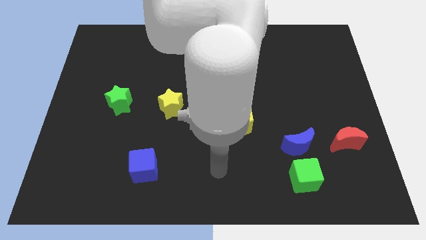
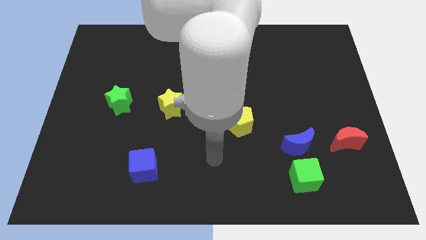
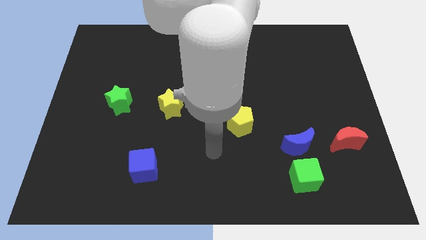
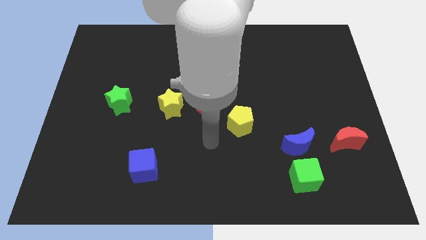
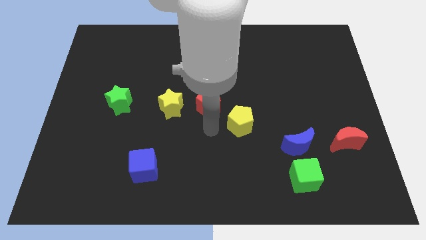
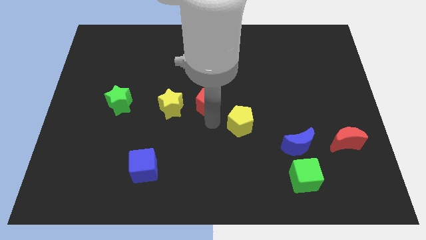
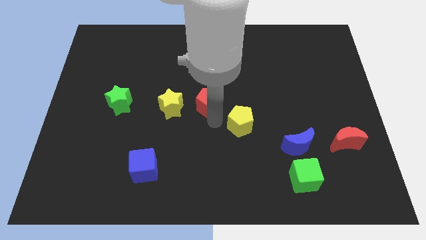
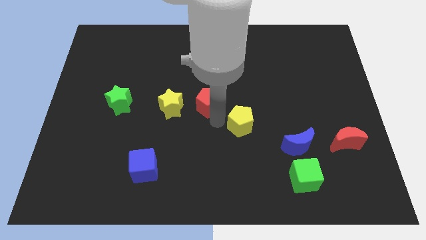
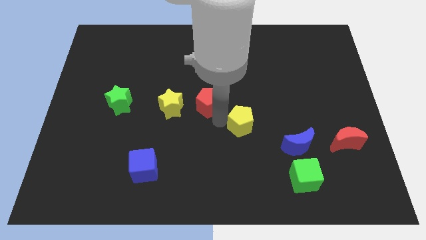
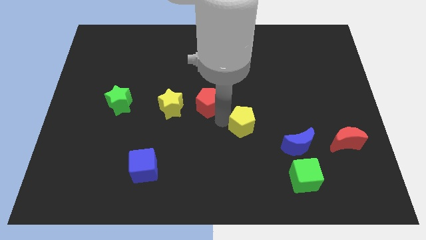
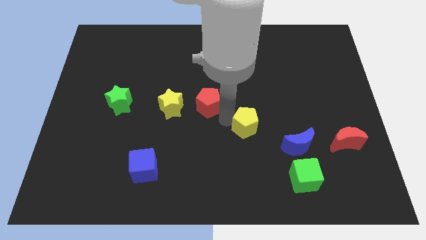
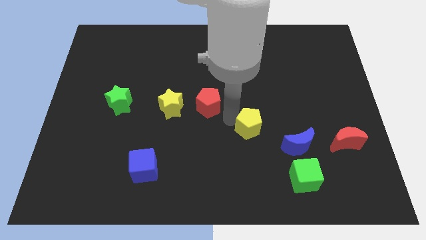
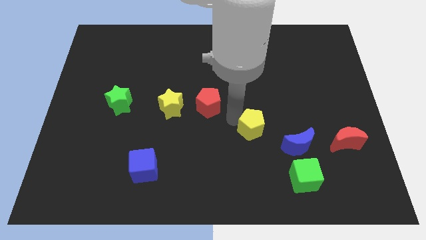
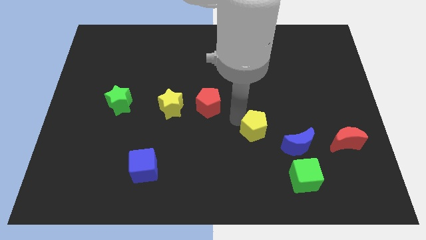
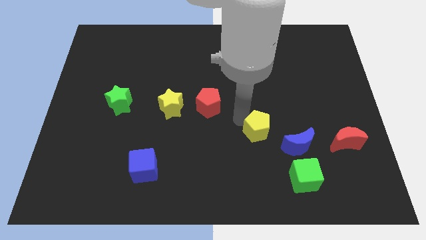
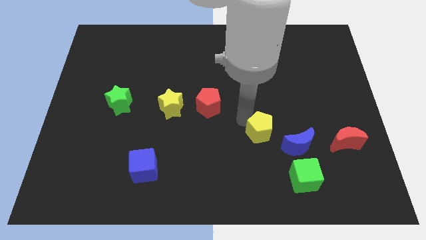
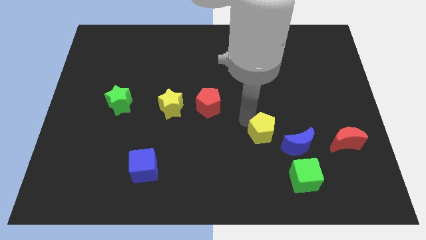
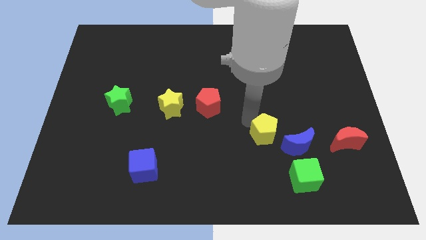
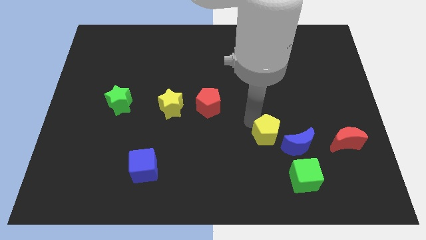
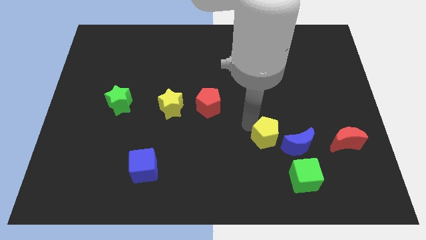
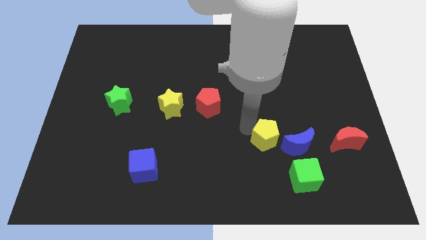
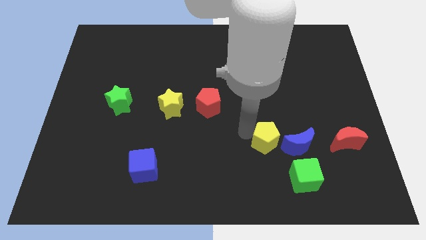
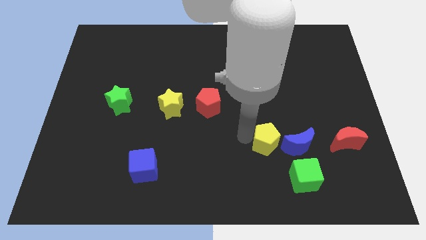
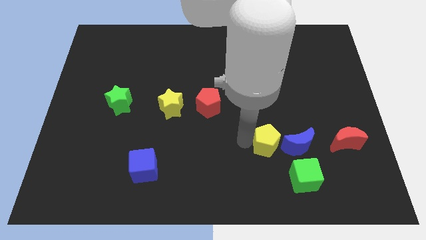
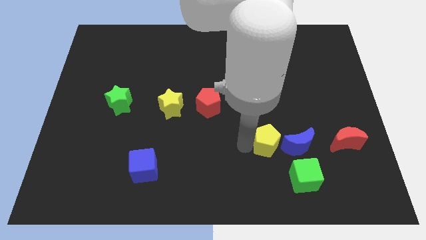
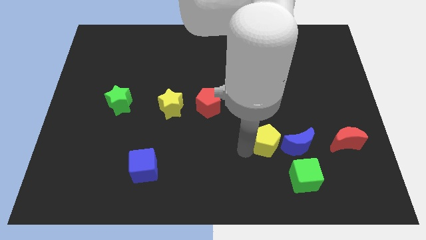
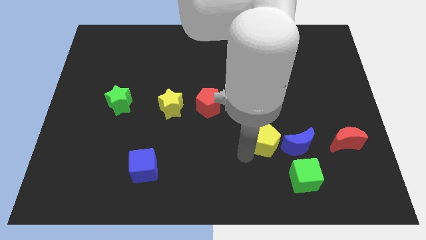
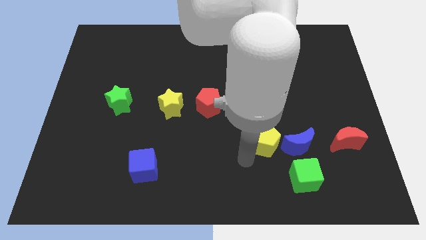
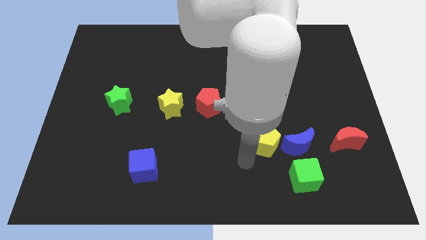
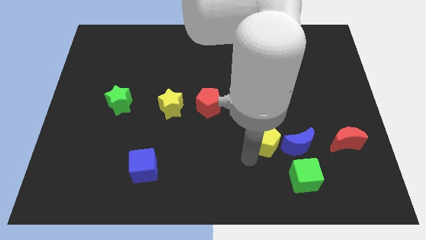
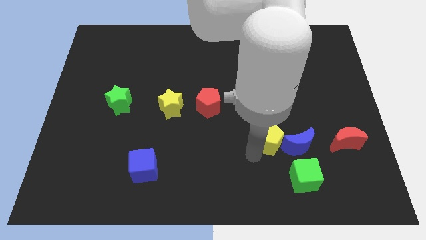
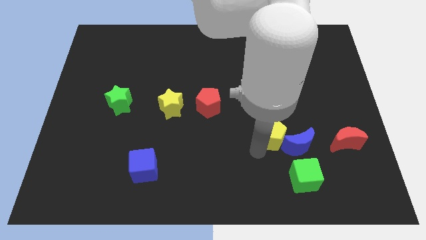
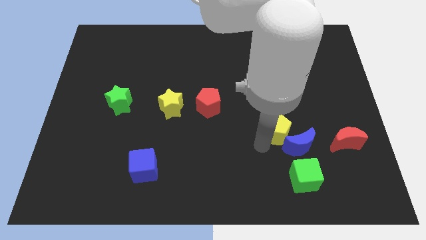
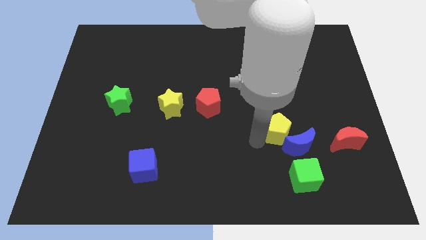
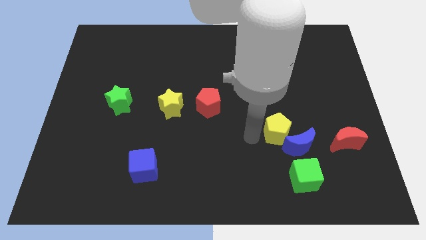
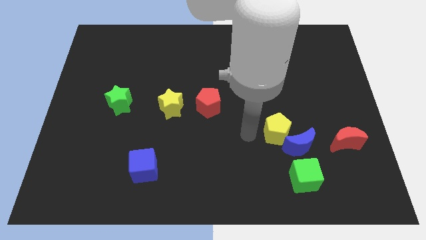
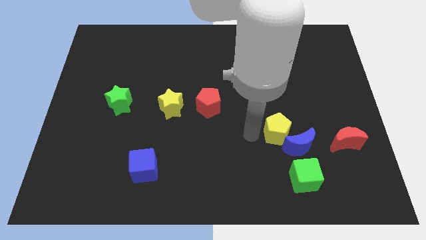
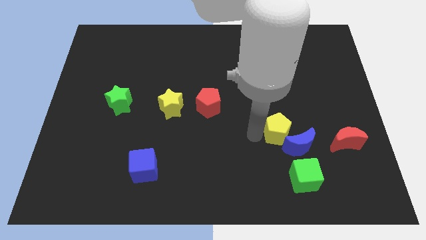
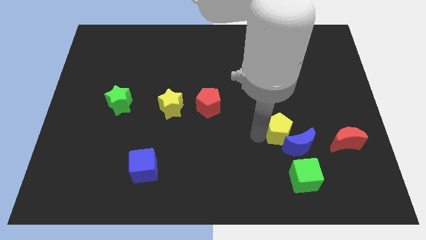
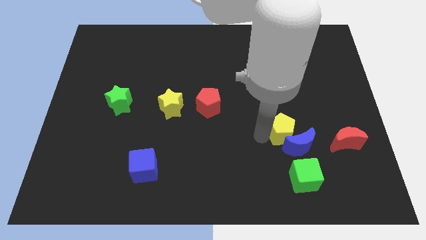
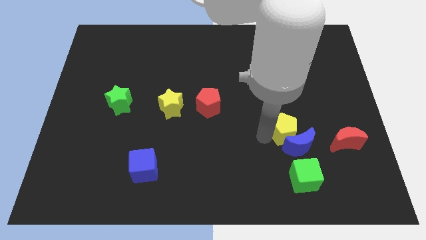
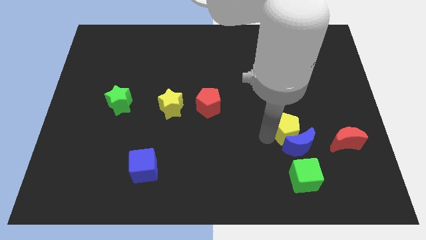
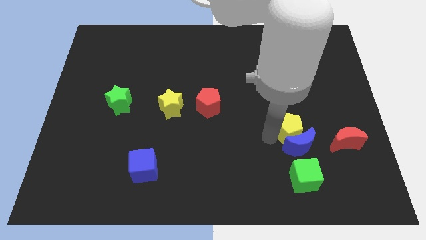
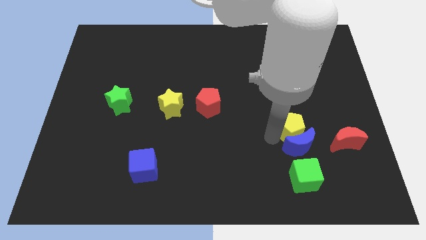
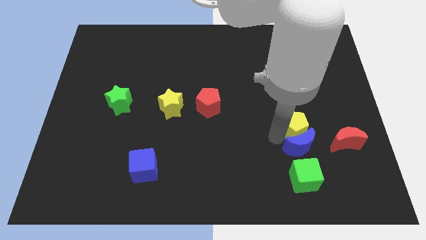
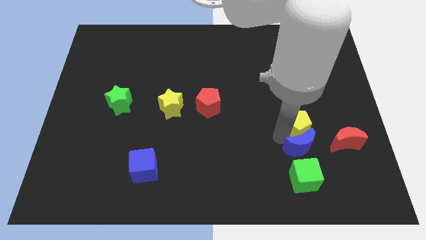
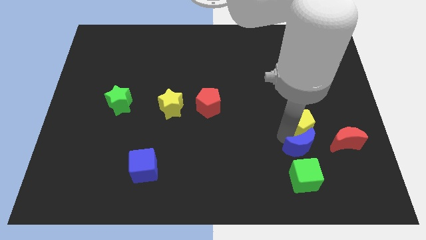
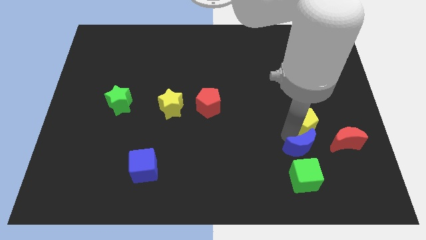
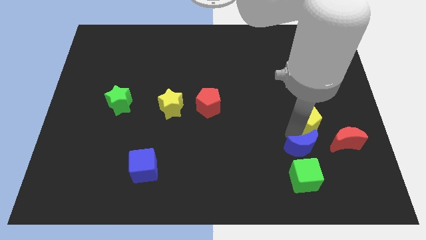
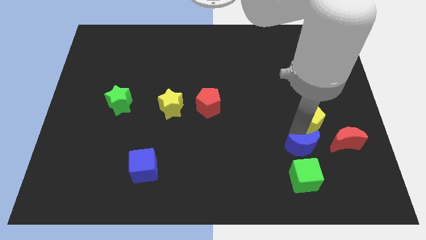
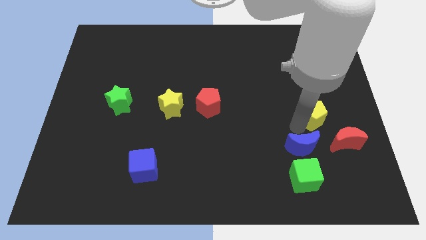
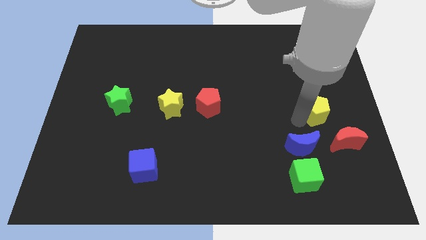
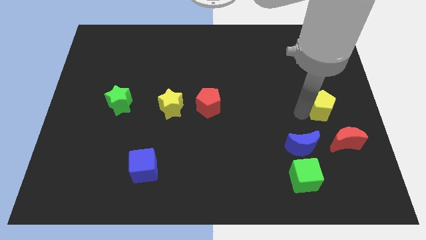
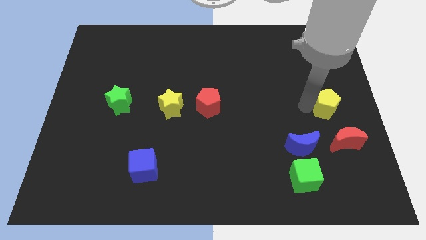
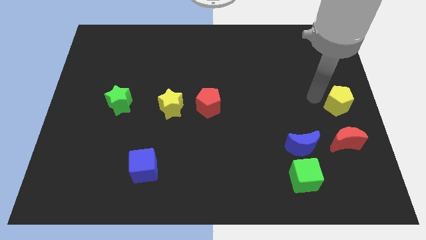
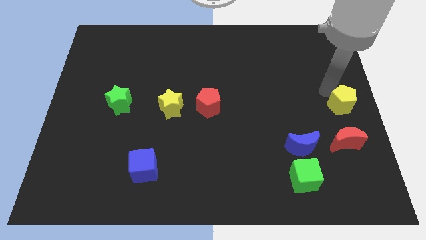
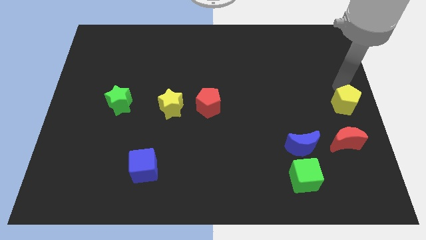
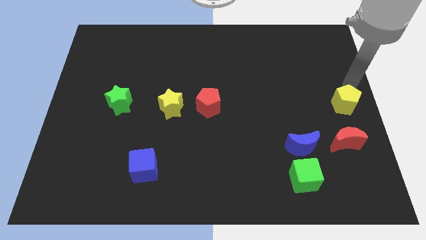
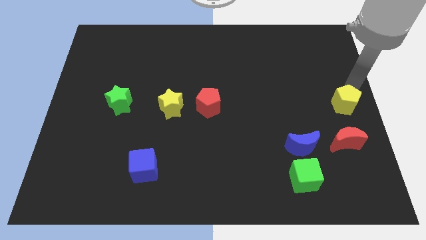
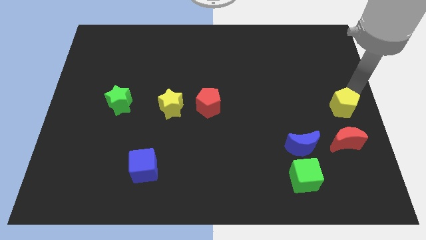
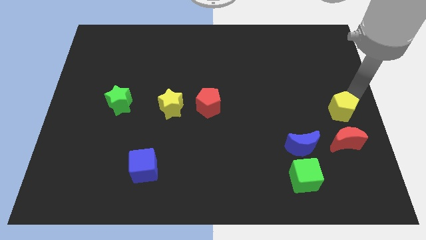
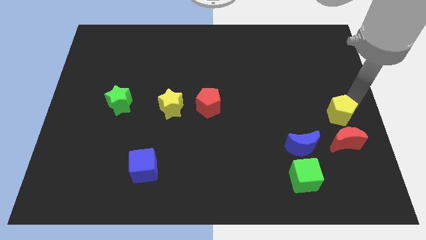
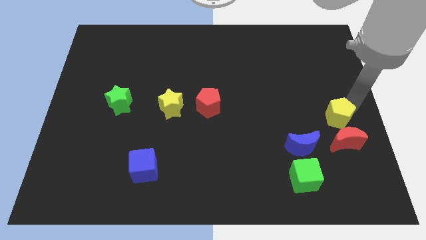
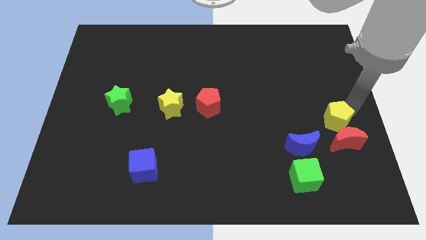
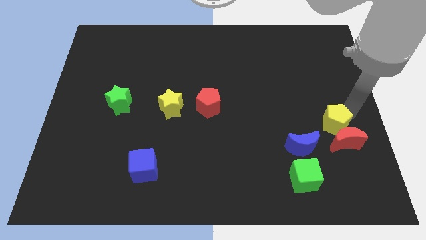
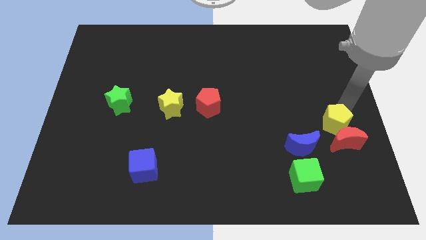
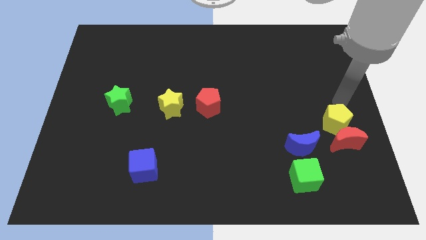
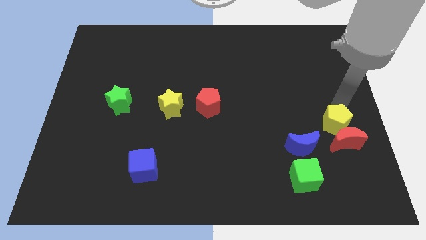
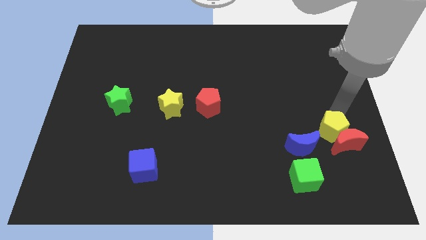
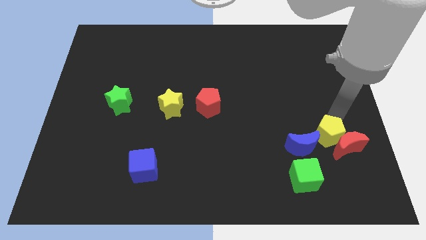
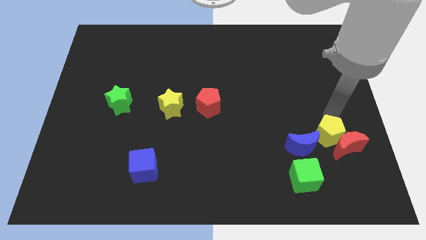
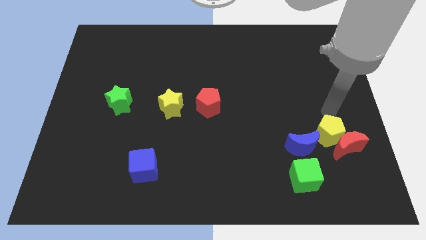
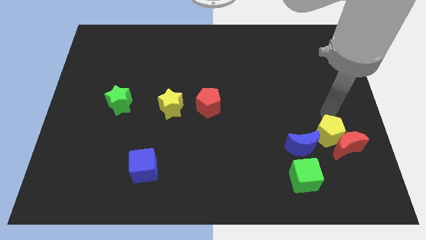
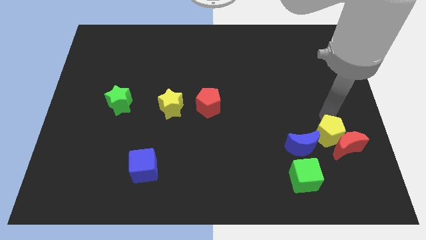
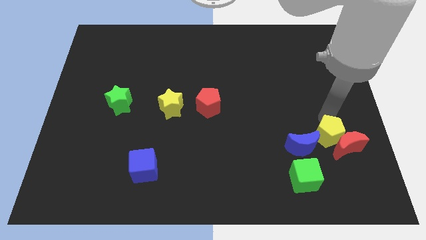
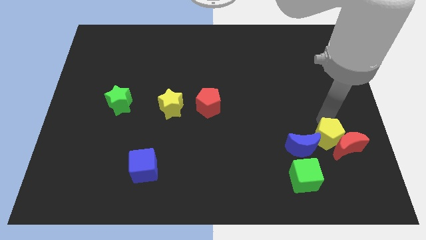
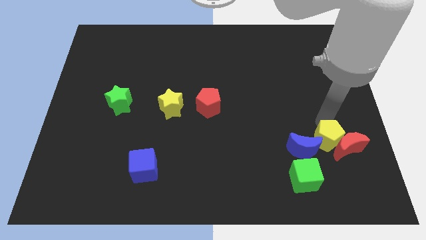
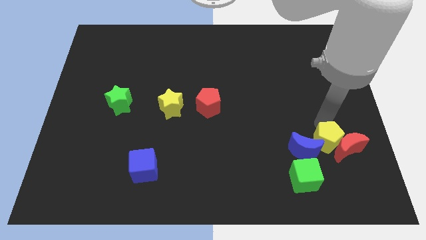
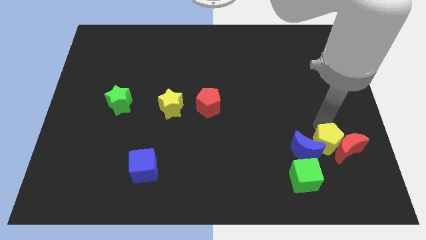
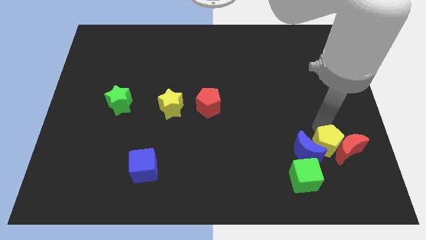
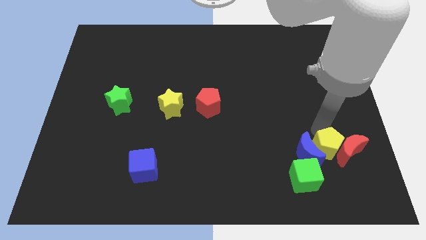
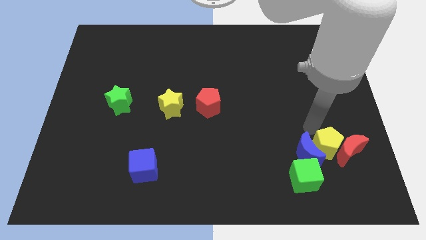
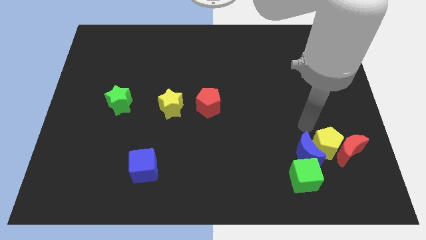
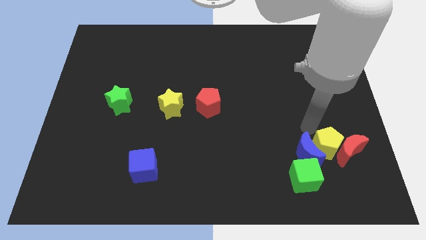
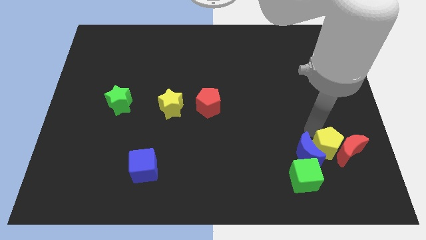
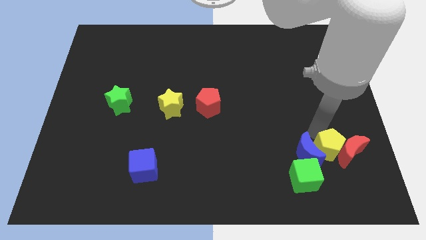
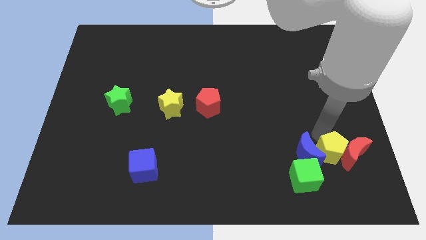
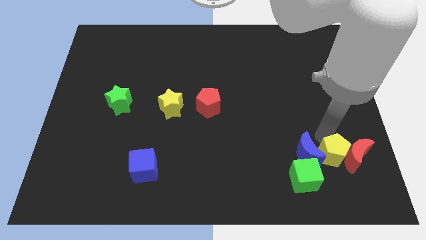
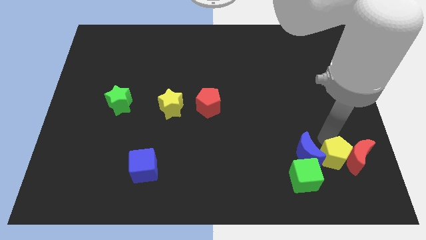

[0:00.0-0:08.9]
put the yellow pentagon right of the green cube
